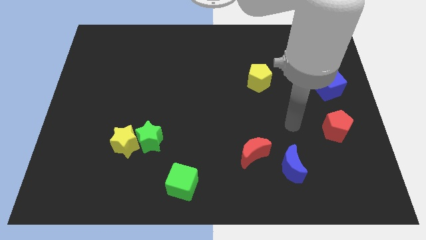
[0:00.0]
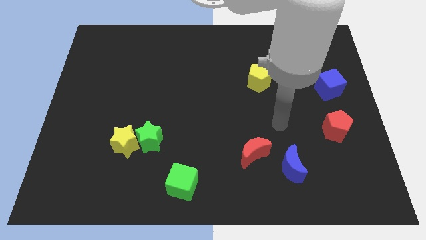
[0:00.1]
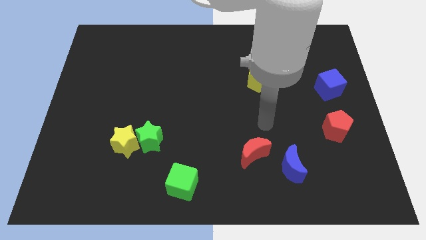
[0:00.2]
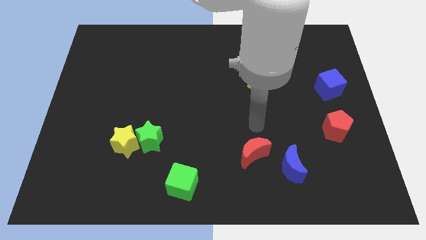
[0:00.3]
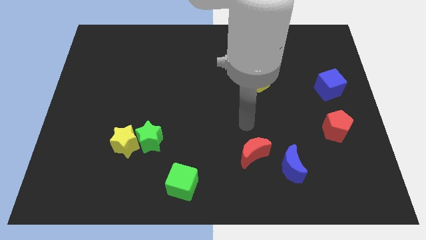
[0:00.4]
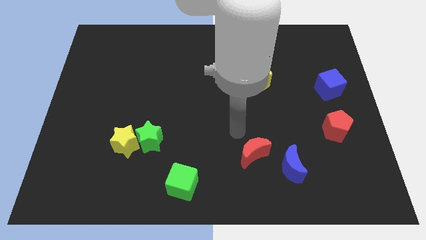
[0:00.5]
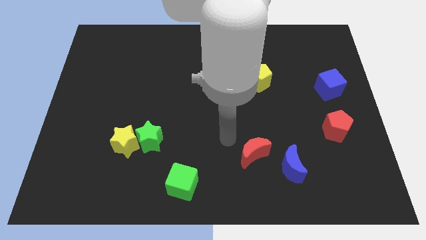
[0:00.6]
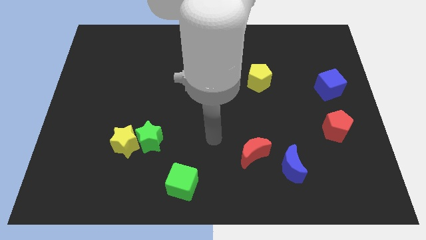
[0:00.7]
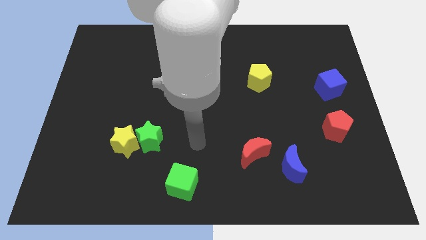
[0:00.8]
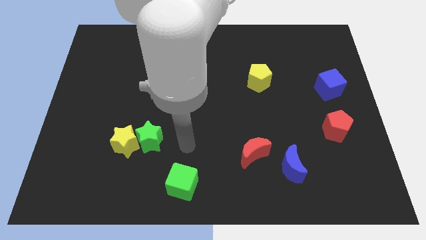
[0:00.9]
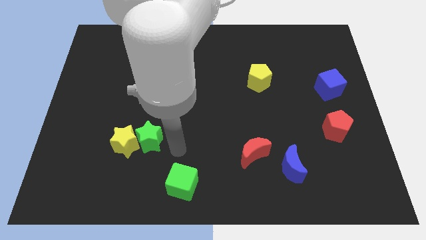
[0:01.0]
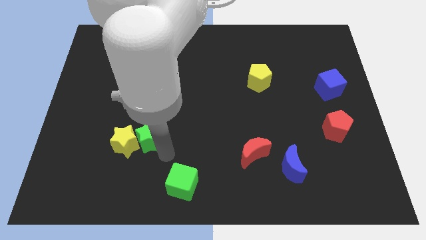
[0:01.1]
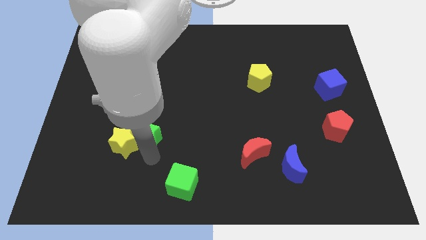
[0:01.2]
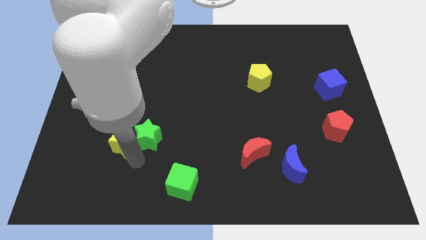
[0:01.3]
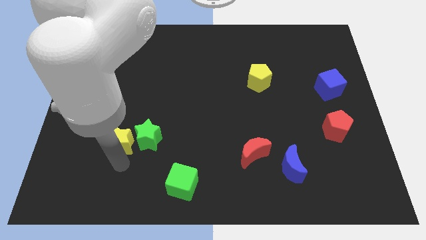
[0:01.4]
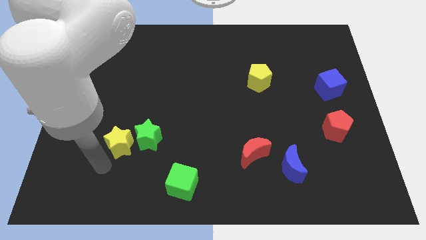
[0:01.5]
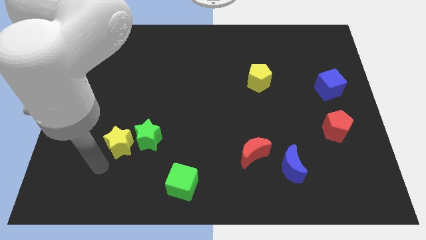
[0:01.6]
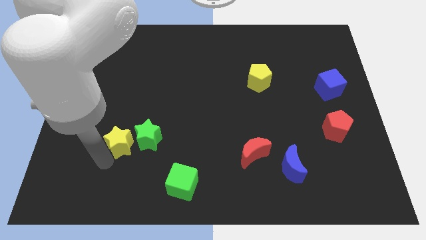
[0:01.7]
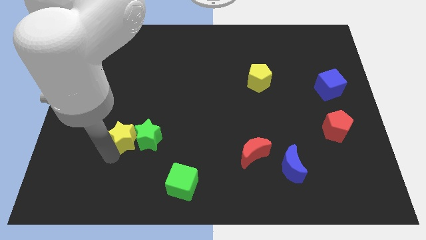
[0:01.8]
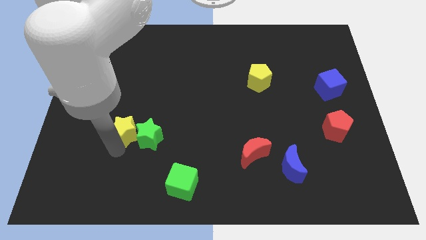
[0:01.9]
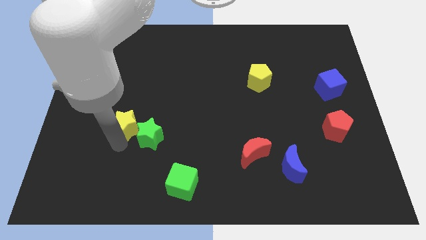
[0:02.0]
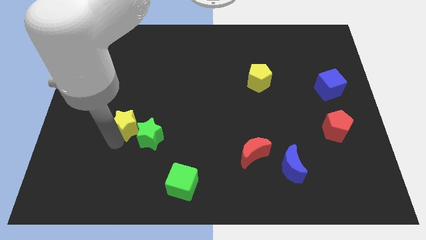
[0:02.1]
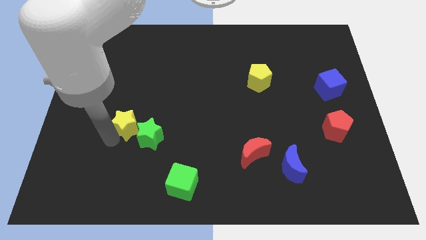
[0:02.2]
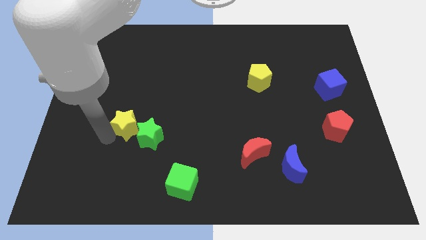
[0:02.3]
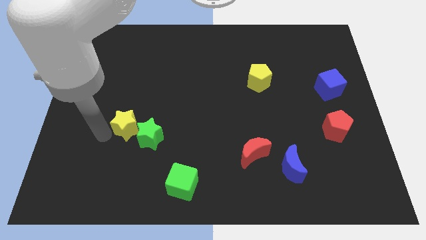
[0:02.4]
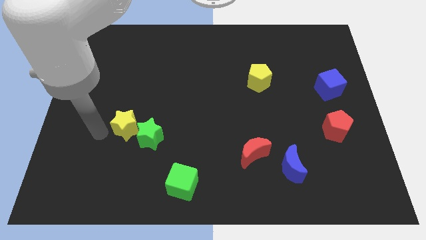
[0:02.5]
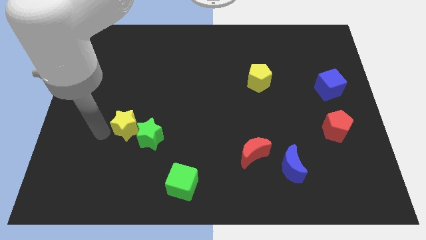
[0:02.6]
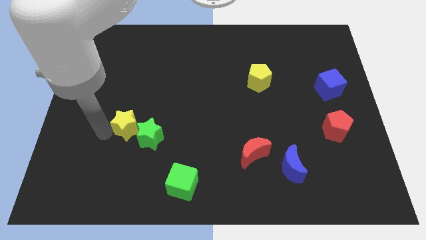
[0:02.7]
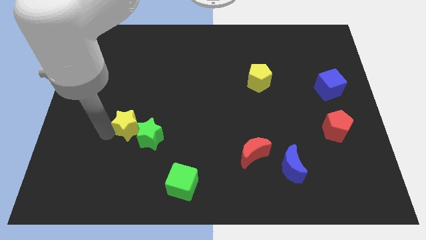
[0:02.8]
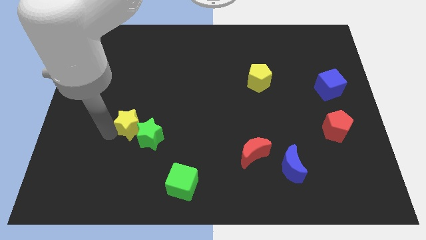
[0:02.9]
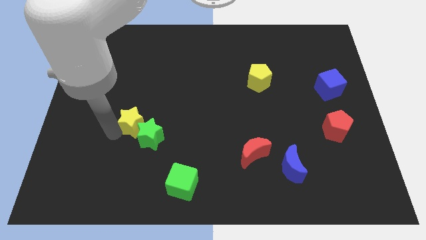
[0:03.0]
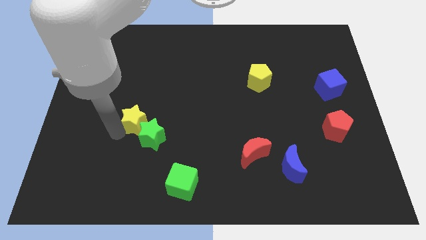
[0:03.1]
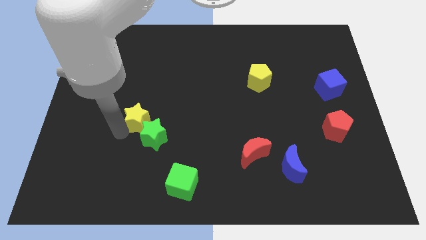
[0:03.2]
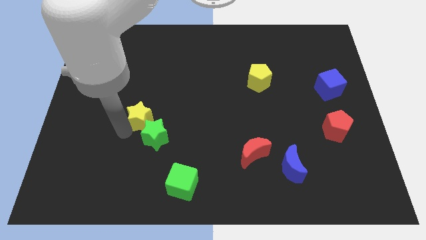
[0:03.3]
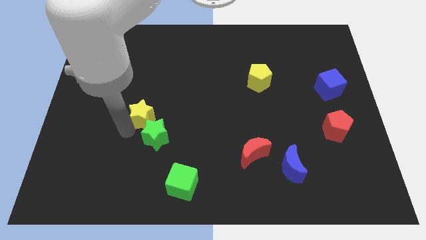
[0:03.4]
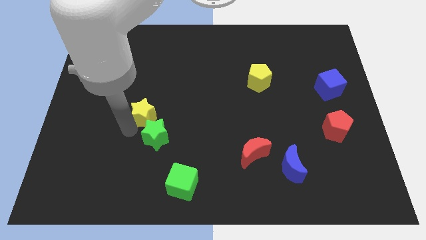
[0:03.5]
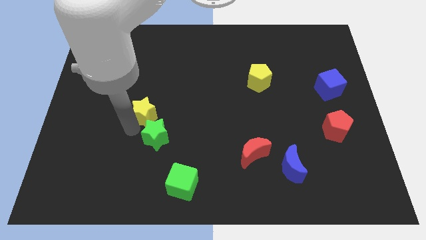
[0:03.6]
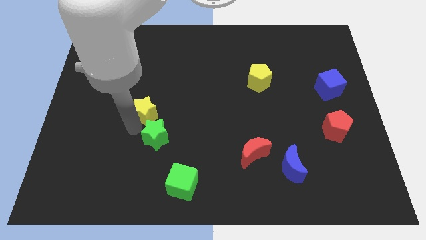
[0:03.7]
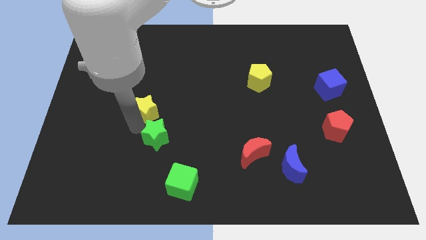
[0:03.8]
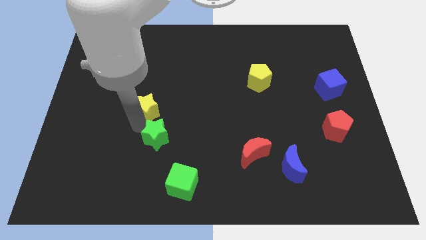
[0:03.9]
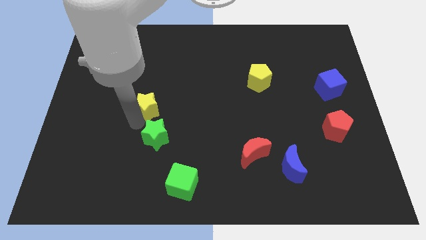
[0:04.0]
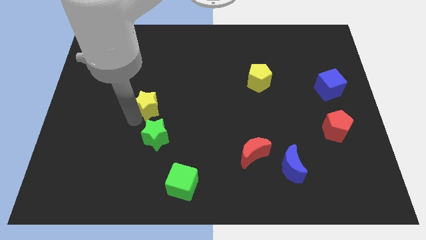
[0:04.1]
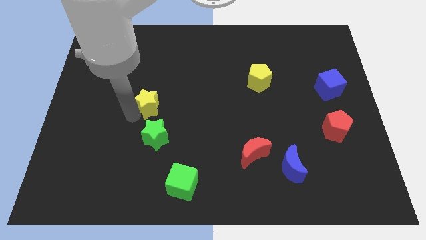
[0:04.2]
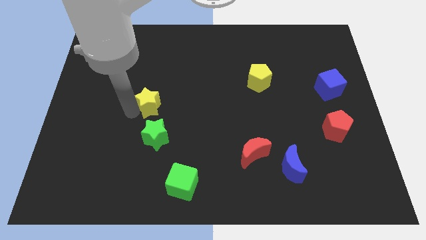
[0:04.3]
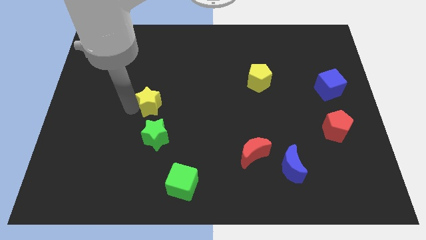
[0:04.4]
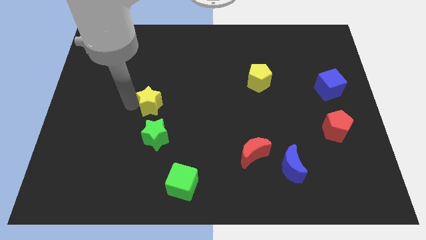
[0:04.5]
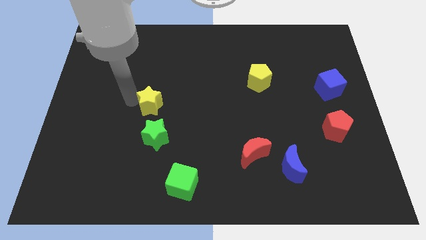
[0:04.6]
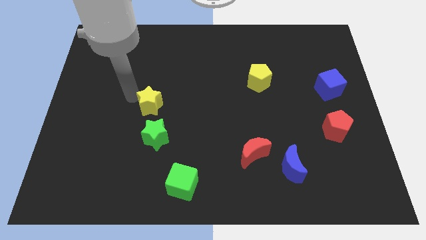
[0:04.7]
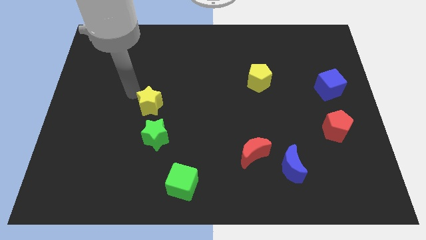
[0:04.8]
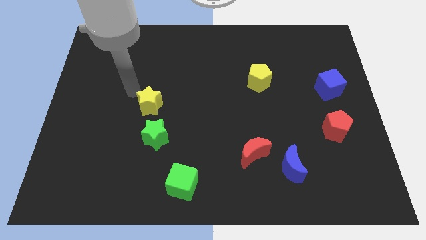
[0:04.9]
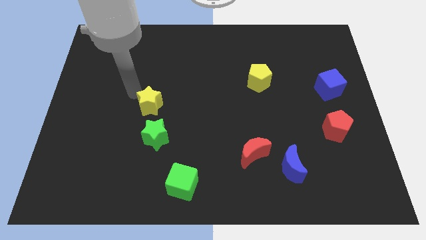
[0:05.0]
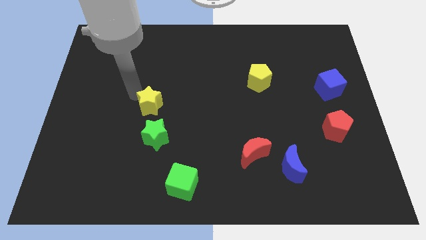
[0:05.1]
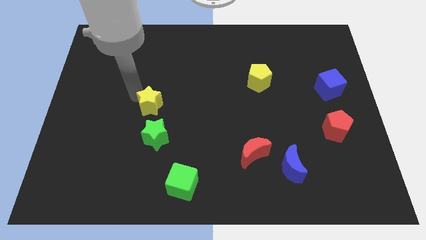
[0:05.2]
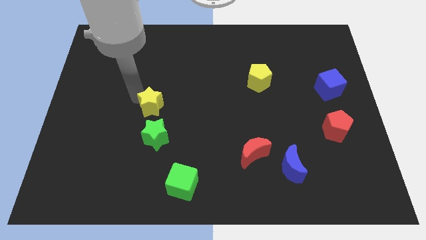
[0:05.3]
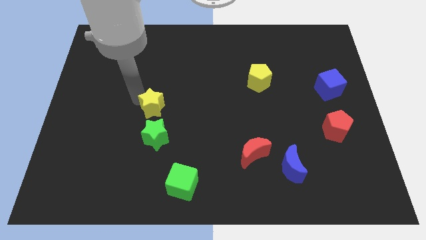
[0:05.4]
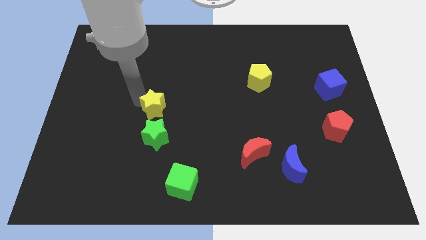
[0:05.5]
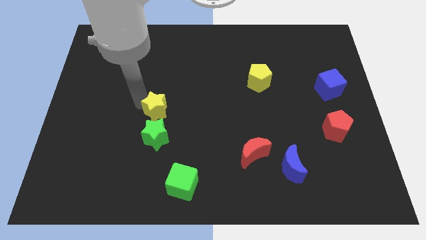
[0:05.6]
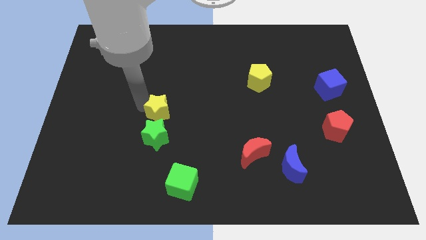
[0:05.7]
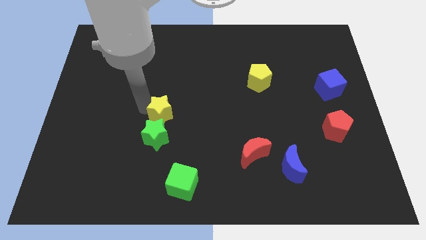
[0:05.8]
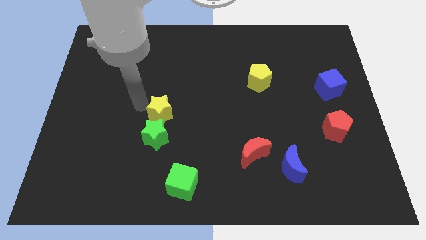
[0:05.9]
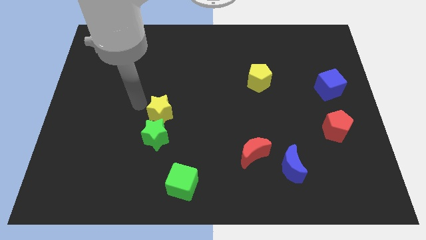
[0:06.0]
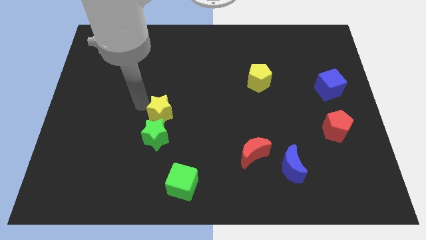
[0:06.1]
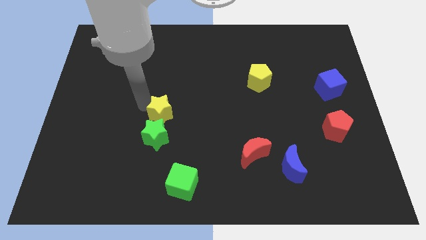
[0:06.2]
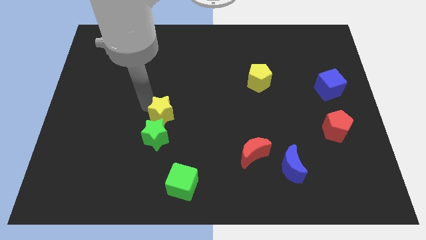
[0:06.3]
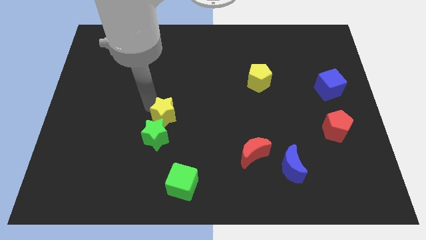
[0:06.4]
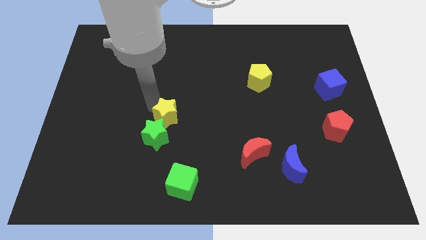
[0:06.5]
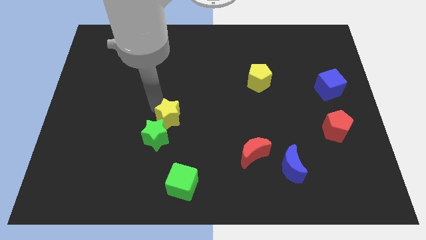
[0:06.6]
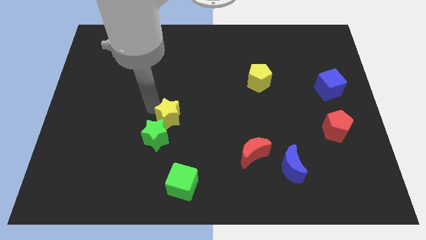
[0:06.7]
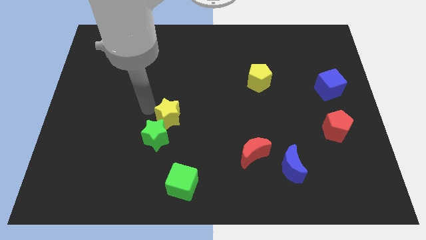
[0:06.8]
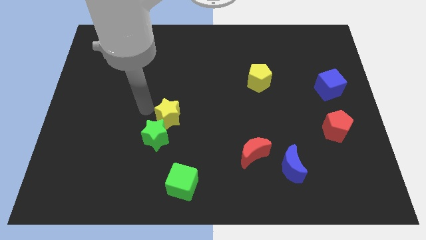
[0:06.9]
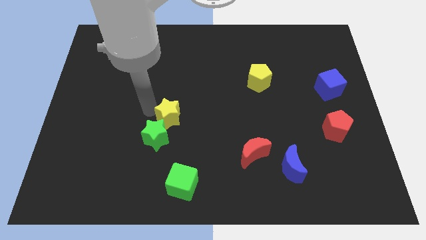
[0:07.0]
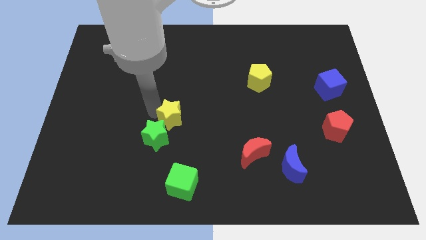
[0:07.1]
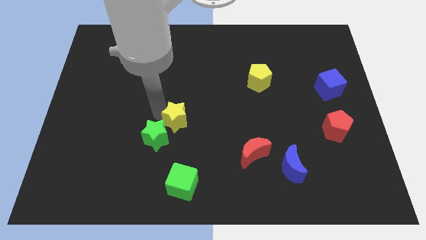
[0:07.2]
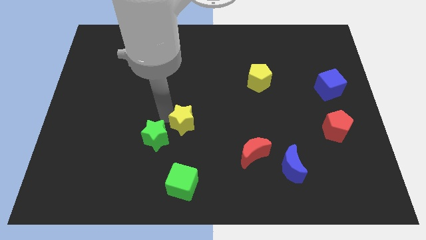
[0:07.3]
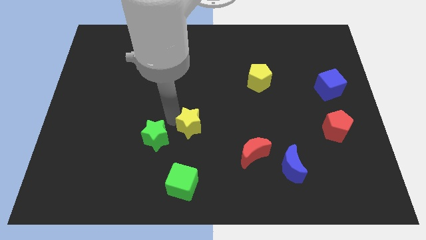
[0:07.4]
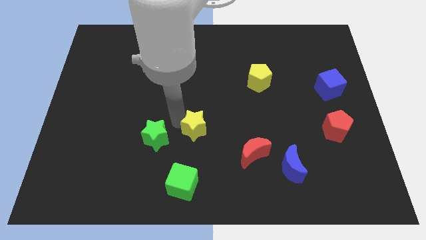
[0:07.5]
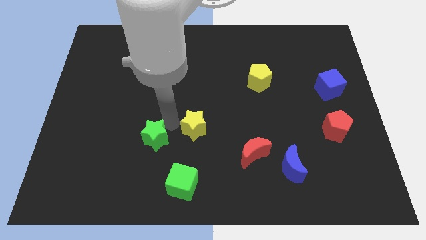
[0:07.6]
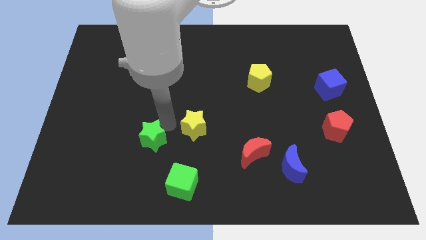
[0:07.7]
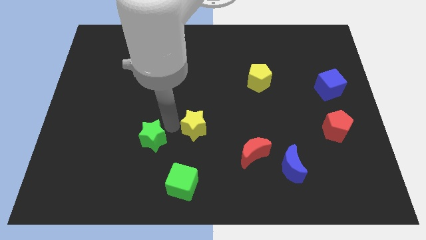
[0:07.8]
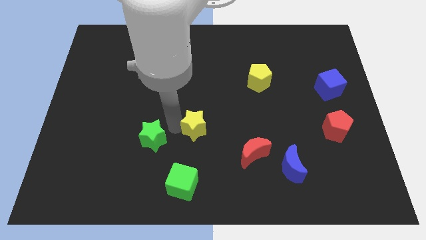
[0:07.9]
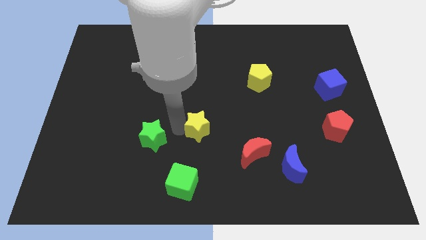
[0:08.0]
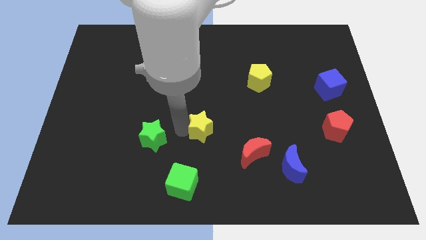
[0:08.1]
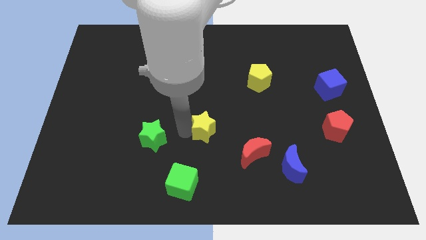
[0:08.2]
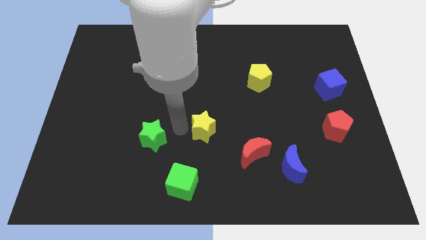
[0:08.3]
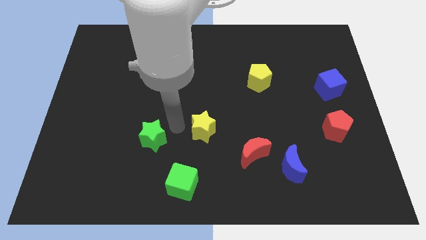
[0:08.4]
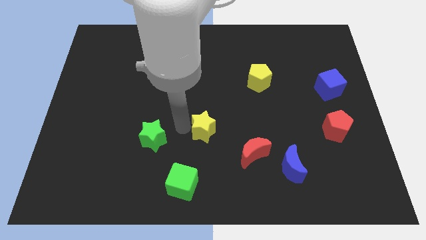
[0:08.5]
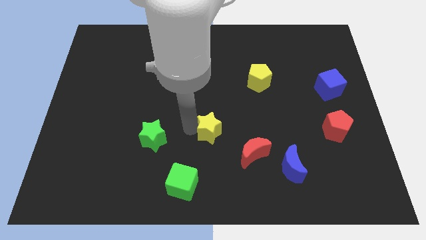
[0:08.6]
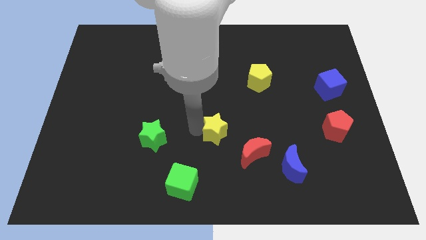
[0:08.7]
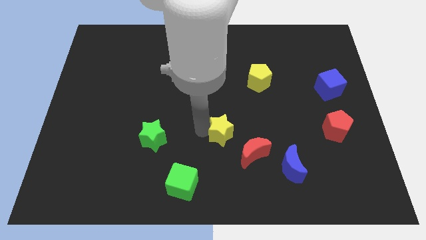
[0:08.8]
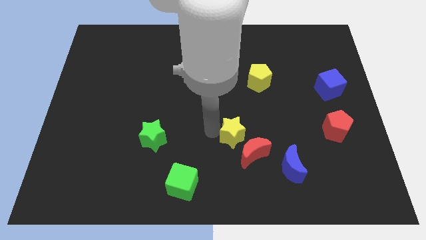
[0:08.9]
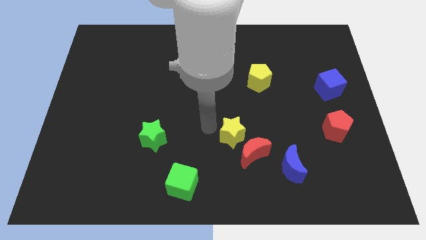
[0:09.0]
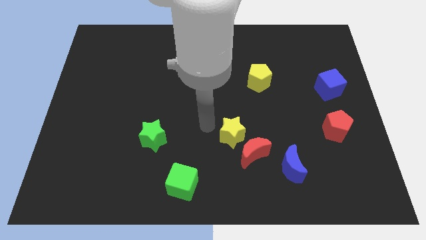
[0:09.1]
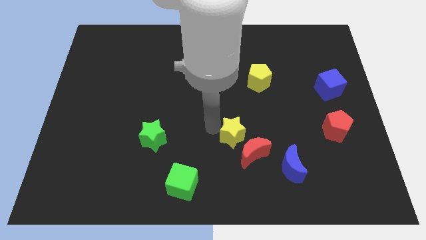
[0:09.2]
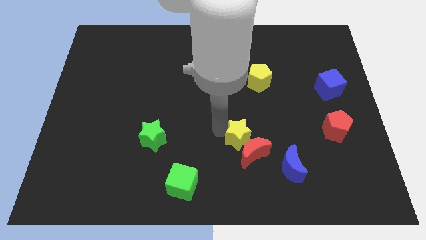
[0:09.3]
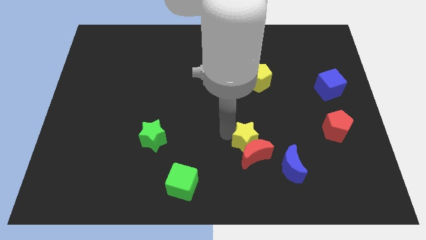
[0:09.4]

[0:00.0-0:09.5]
move the yellow star to the top left of the blue moon
